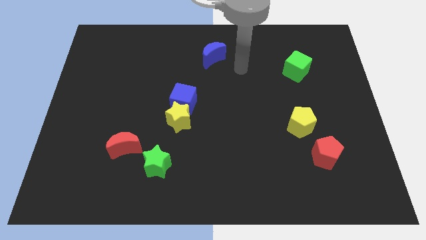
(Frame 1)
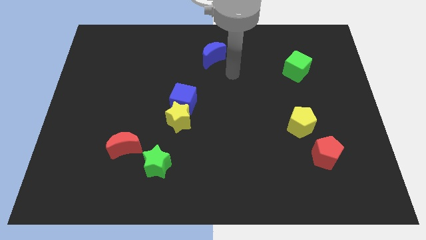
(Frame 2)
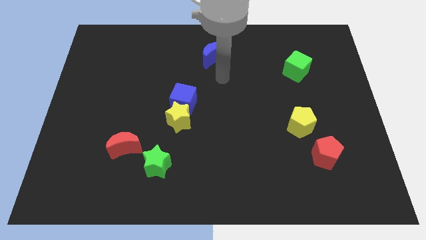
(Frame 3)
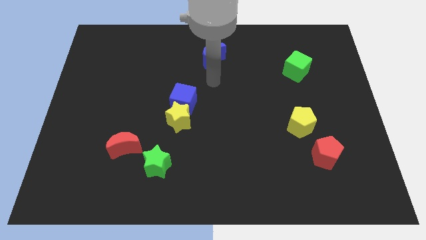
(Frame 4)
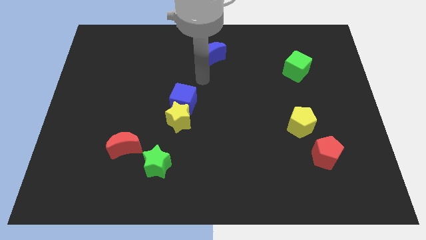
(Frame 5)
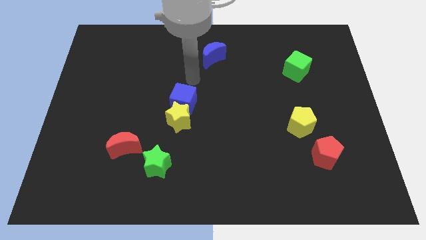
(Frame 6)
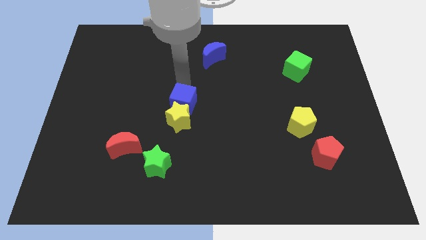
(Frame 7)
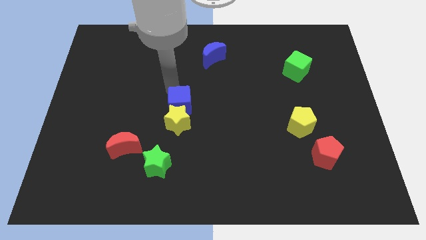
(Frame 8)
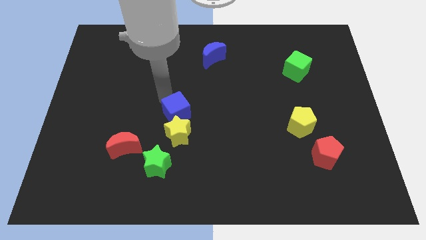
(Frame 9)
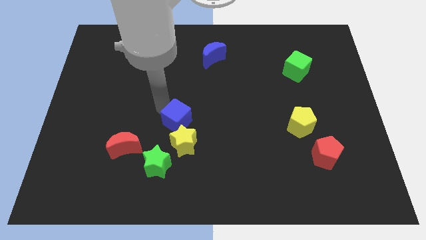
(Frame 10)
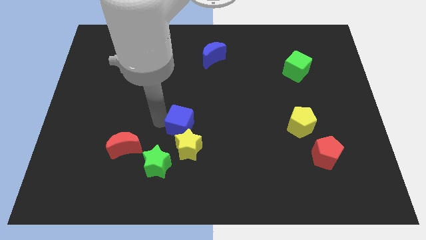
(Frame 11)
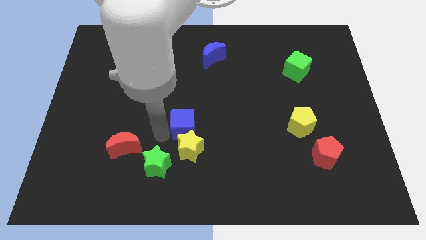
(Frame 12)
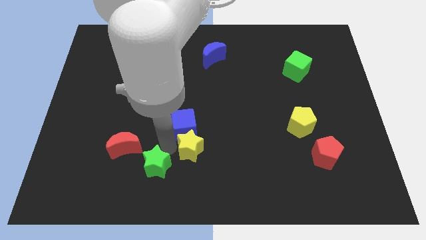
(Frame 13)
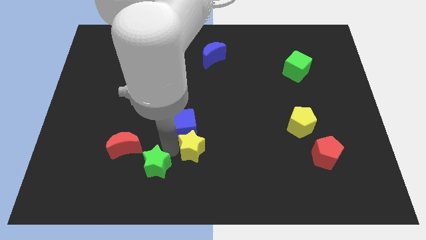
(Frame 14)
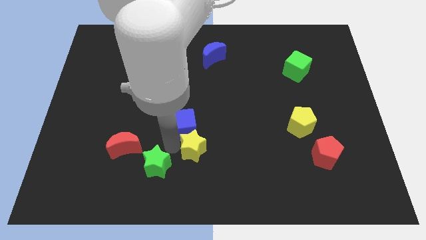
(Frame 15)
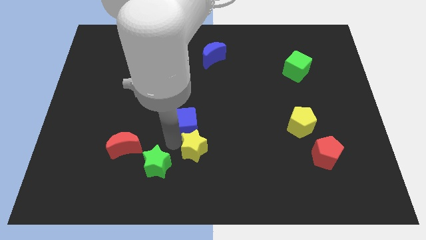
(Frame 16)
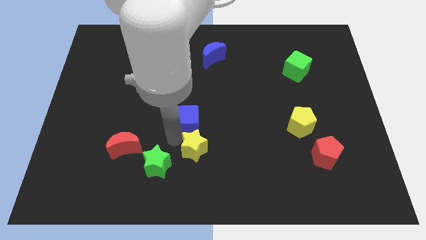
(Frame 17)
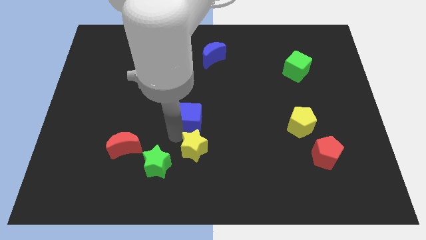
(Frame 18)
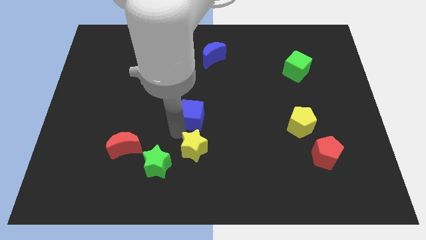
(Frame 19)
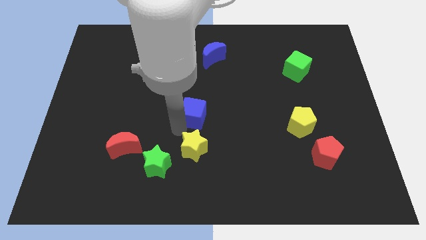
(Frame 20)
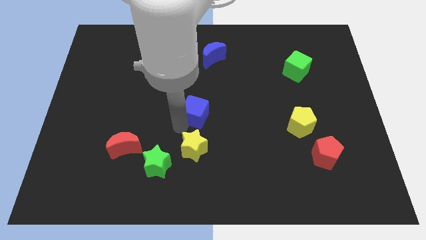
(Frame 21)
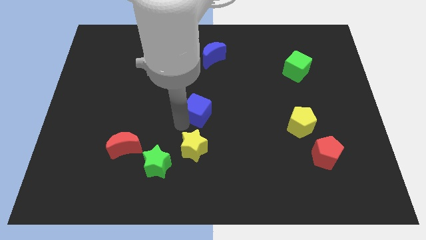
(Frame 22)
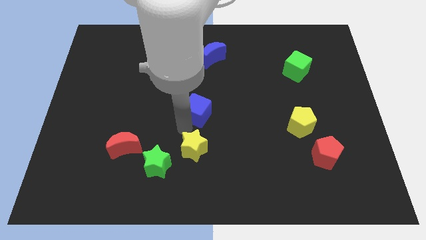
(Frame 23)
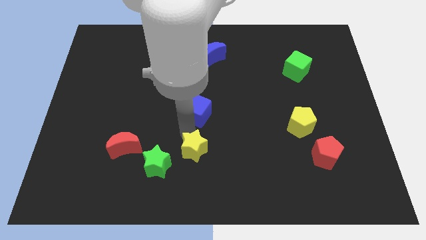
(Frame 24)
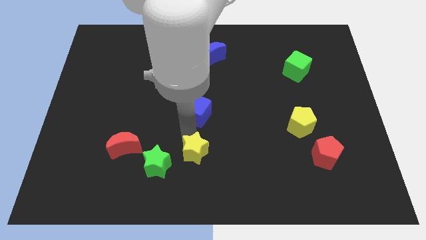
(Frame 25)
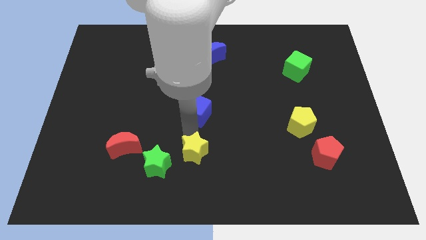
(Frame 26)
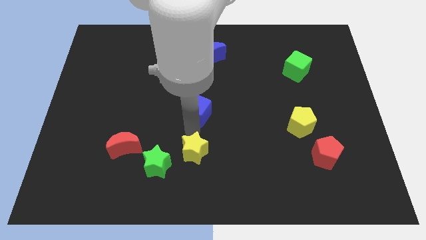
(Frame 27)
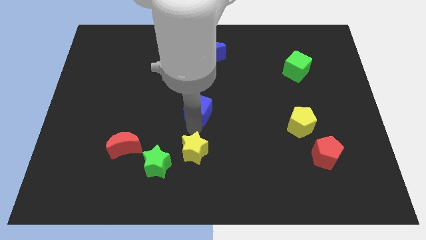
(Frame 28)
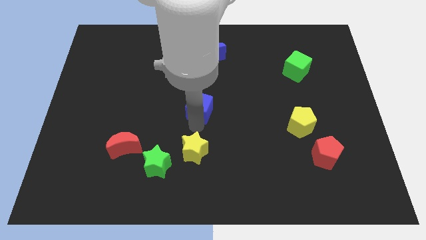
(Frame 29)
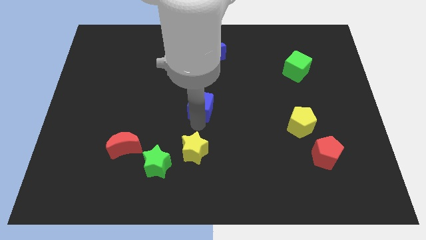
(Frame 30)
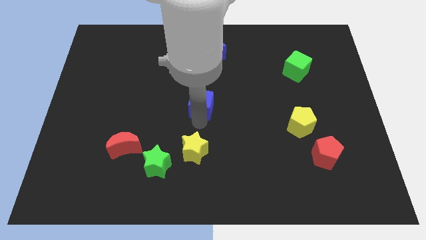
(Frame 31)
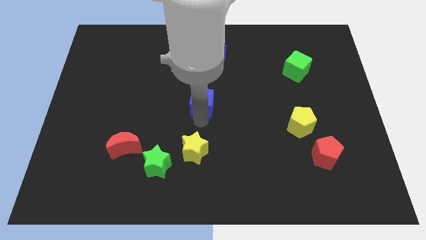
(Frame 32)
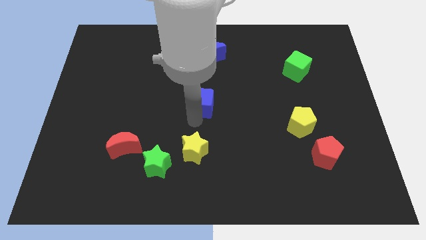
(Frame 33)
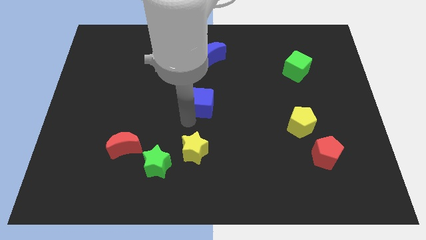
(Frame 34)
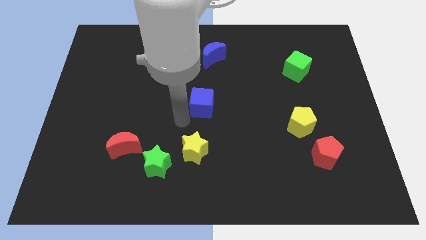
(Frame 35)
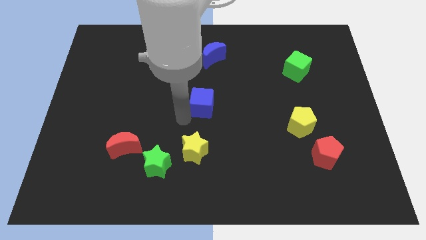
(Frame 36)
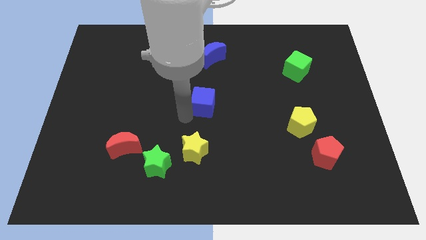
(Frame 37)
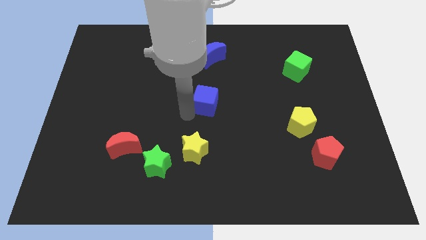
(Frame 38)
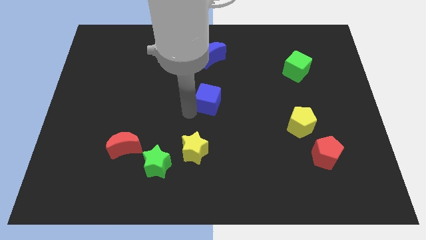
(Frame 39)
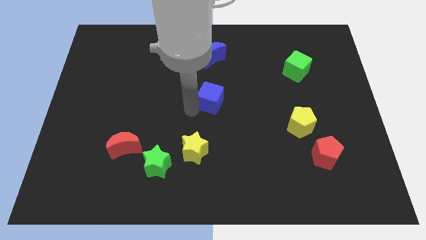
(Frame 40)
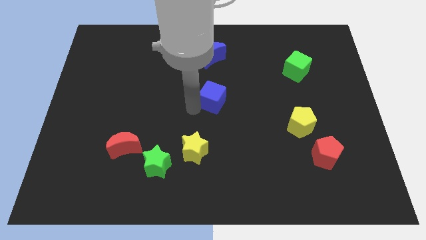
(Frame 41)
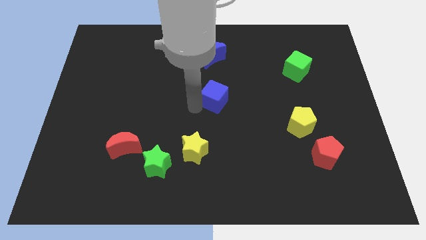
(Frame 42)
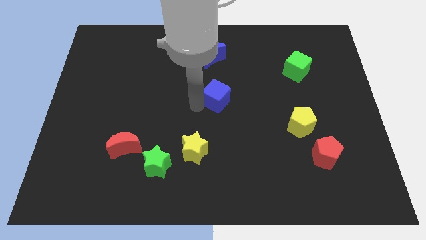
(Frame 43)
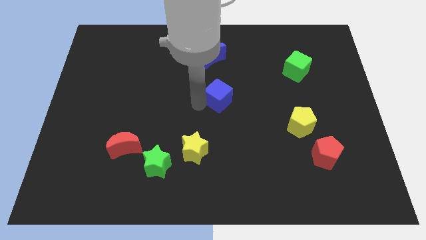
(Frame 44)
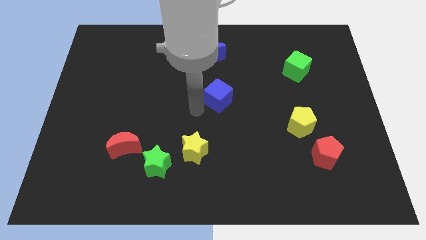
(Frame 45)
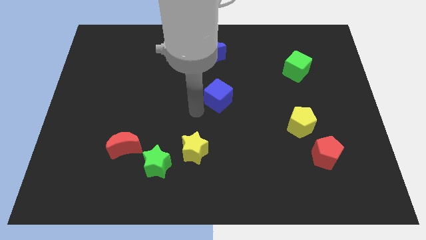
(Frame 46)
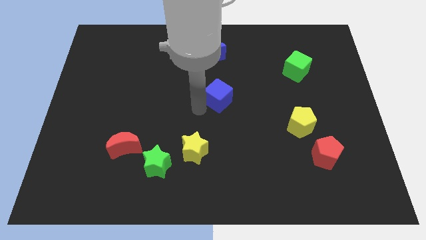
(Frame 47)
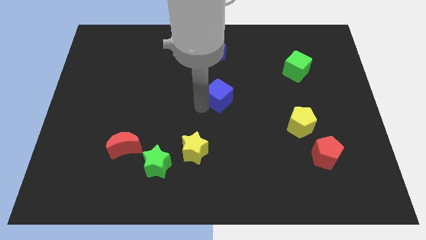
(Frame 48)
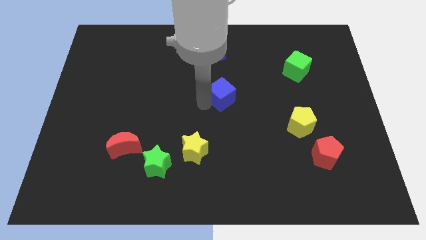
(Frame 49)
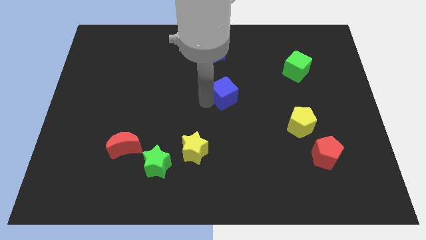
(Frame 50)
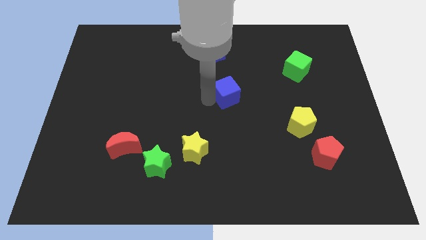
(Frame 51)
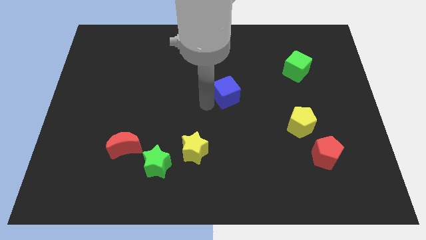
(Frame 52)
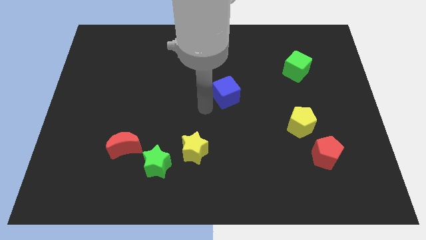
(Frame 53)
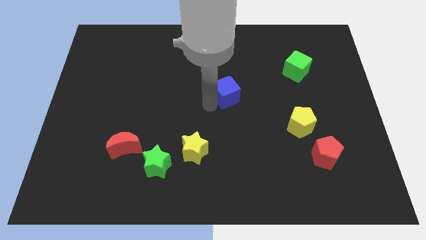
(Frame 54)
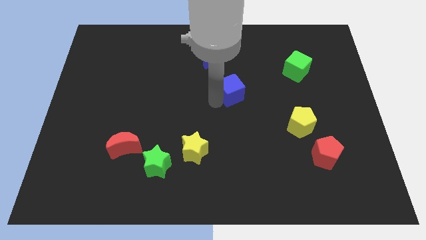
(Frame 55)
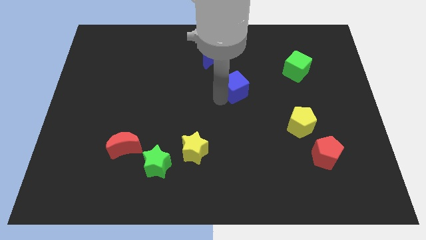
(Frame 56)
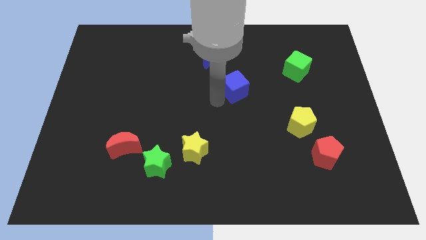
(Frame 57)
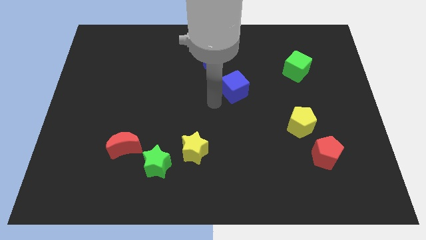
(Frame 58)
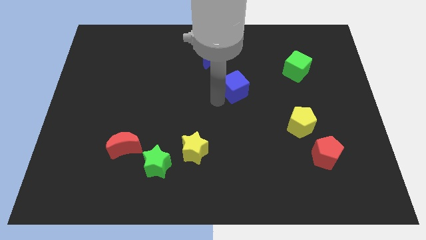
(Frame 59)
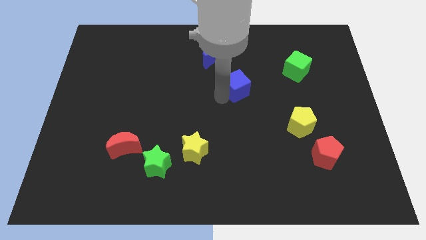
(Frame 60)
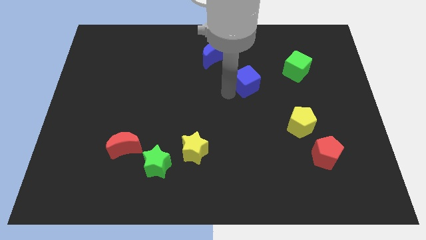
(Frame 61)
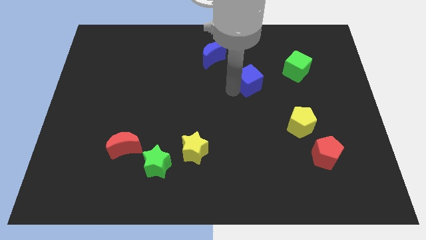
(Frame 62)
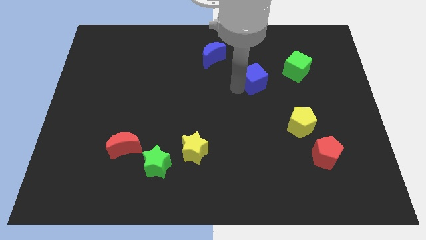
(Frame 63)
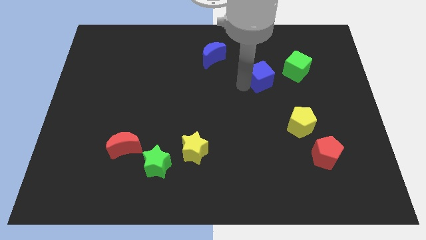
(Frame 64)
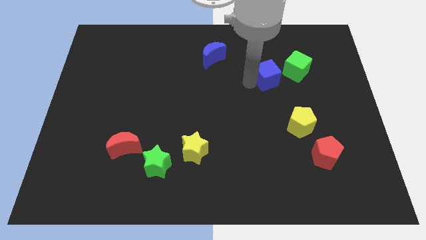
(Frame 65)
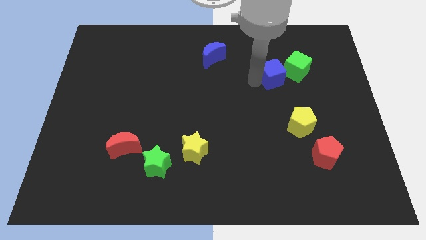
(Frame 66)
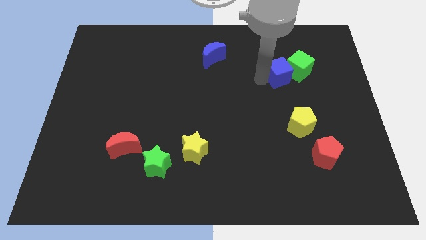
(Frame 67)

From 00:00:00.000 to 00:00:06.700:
push the blue cube towards the green cube
